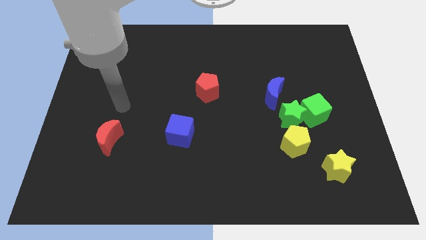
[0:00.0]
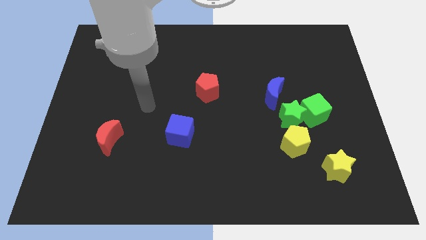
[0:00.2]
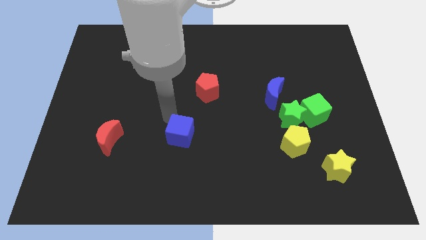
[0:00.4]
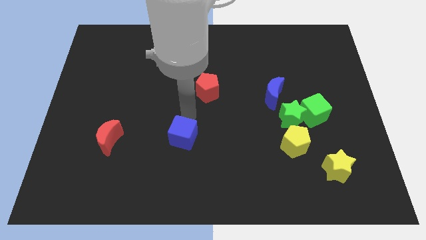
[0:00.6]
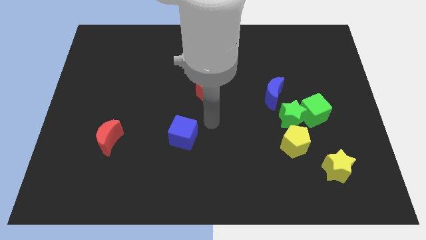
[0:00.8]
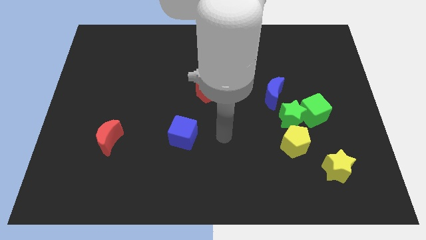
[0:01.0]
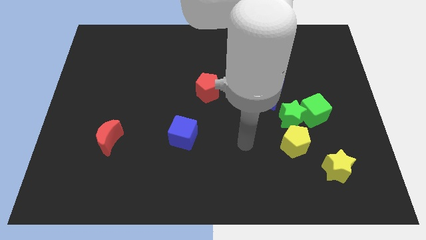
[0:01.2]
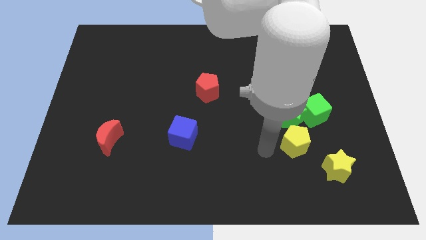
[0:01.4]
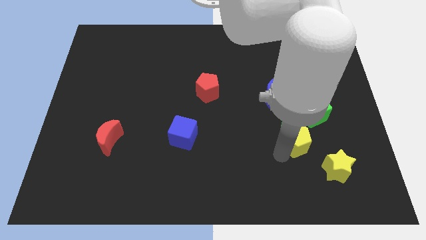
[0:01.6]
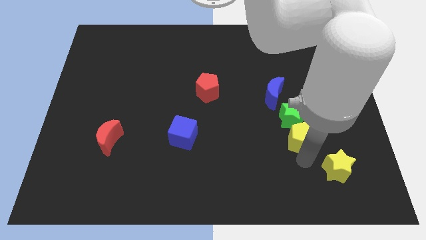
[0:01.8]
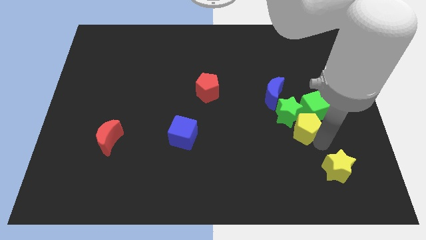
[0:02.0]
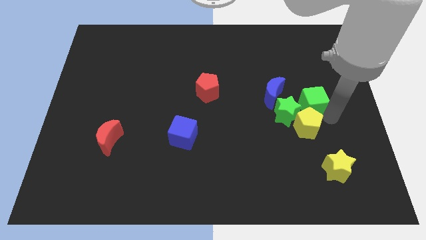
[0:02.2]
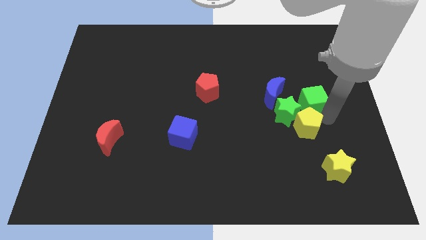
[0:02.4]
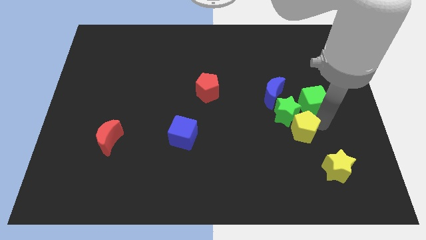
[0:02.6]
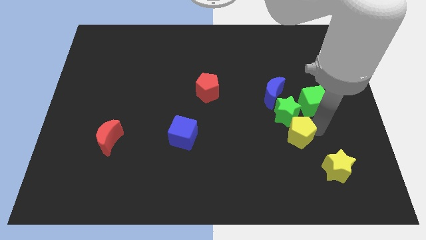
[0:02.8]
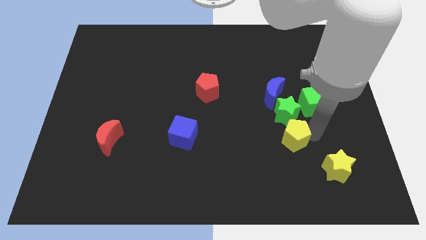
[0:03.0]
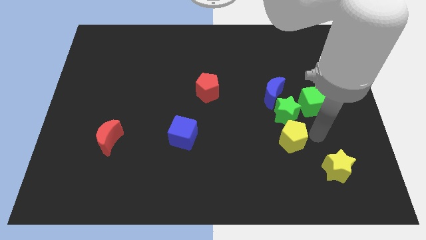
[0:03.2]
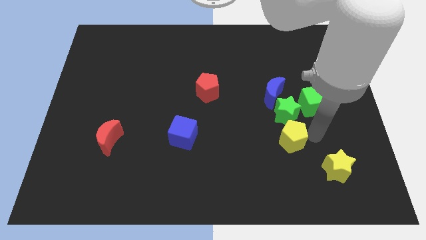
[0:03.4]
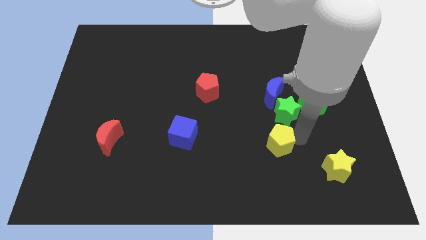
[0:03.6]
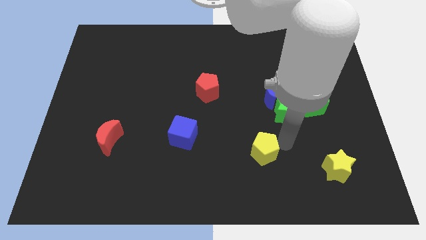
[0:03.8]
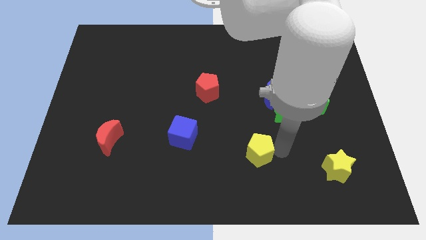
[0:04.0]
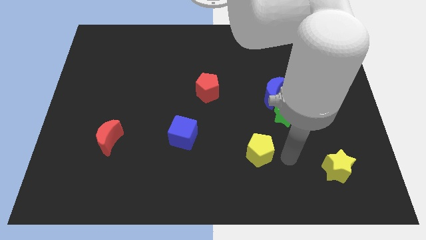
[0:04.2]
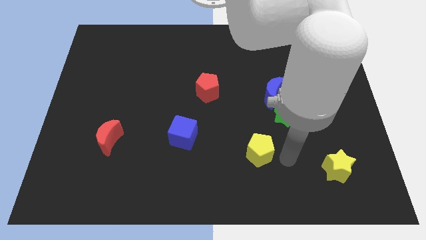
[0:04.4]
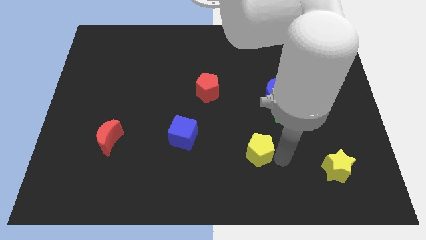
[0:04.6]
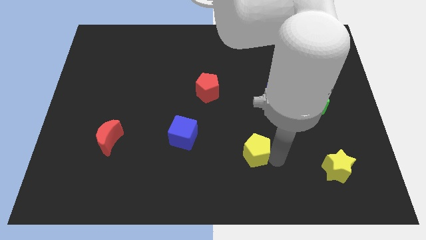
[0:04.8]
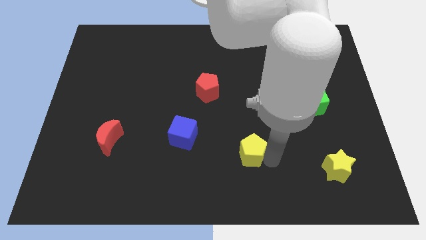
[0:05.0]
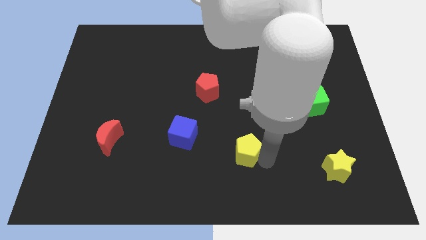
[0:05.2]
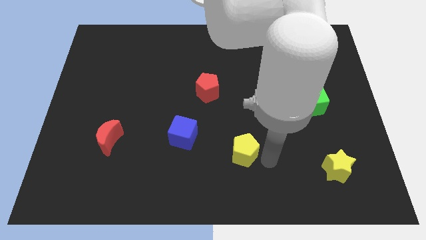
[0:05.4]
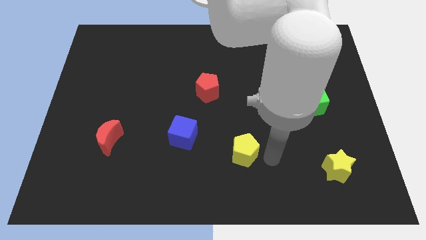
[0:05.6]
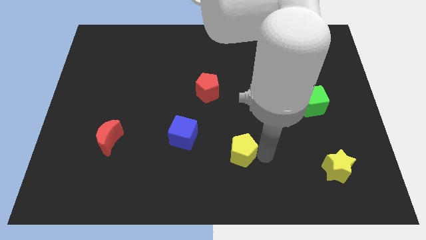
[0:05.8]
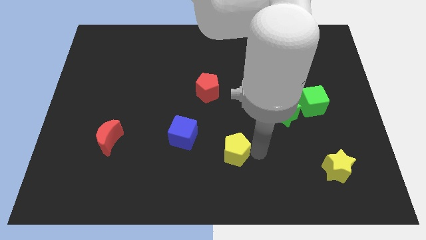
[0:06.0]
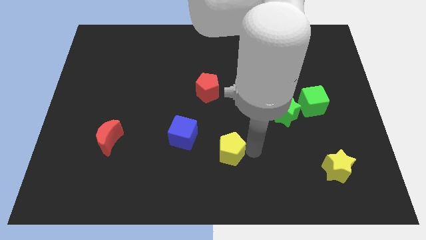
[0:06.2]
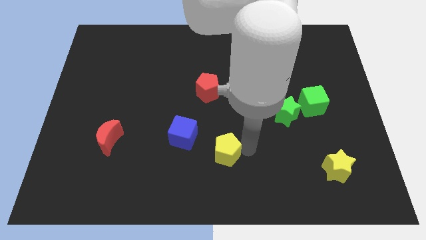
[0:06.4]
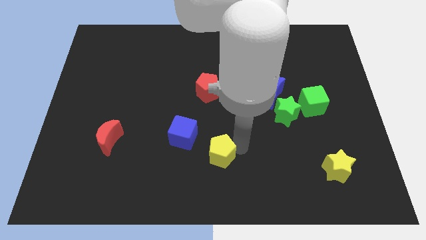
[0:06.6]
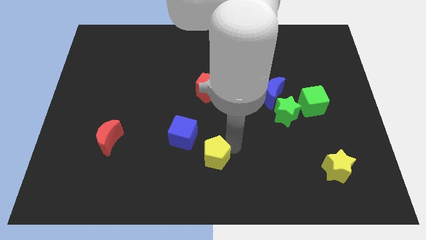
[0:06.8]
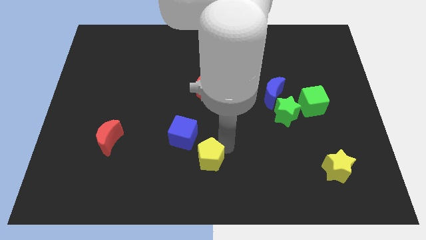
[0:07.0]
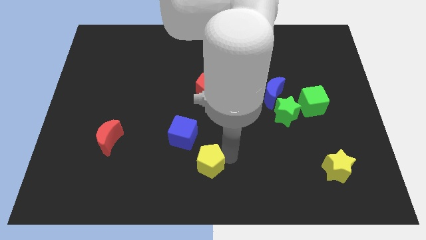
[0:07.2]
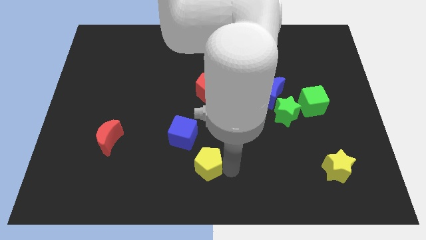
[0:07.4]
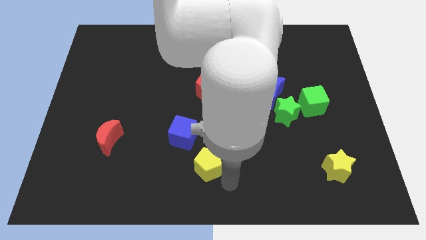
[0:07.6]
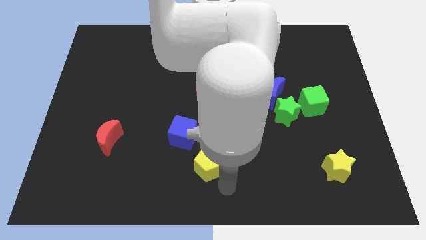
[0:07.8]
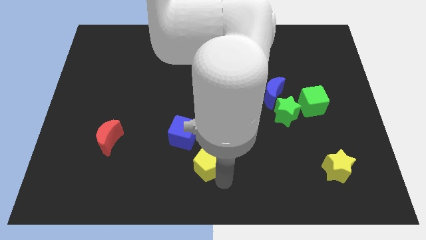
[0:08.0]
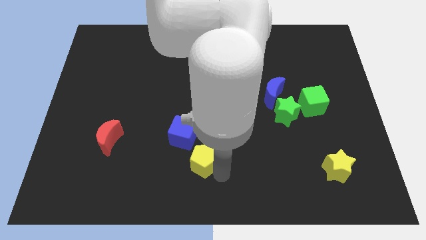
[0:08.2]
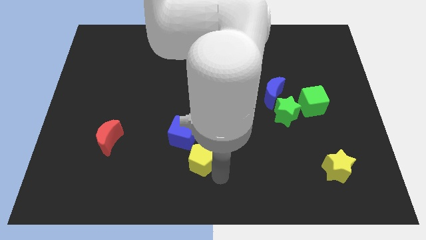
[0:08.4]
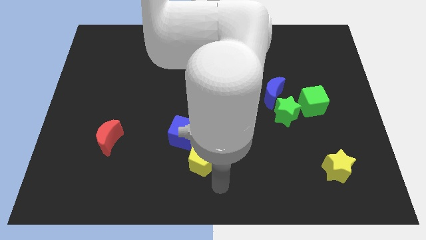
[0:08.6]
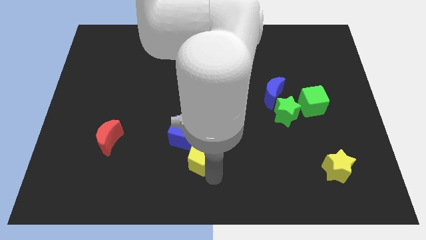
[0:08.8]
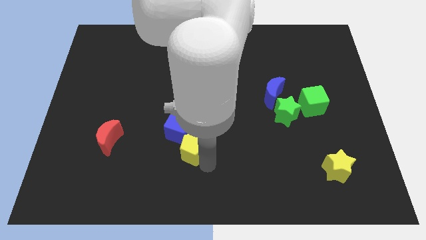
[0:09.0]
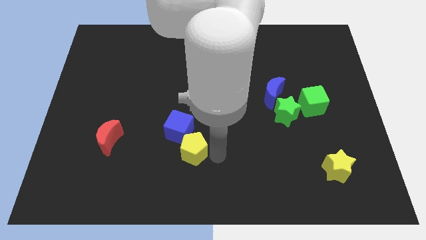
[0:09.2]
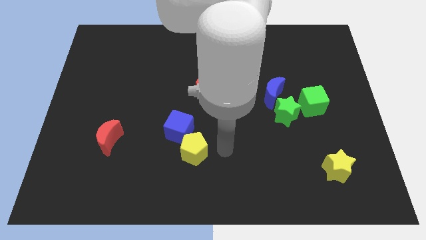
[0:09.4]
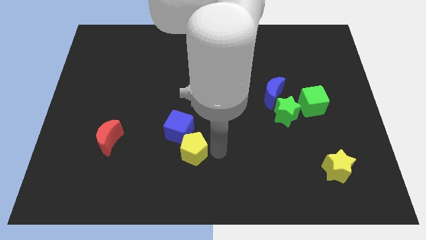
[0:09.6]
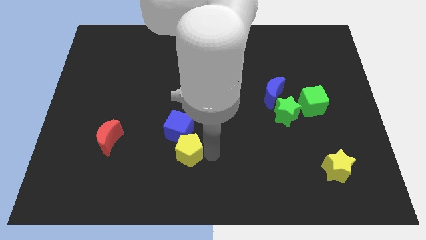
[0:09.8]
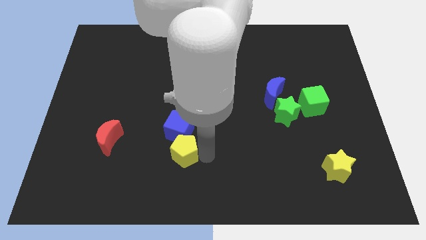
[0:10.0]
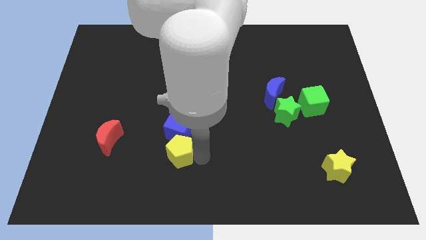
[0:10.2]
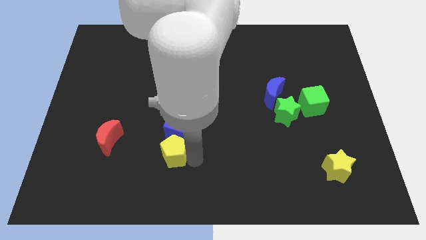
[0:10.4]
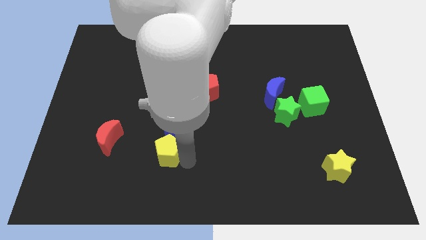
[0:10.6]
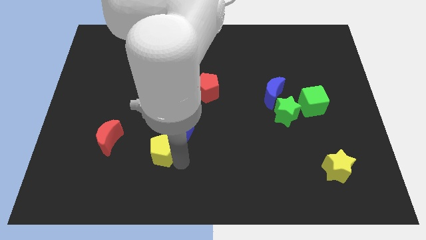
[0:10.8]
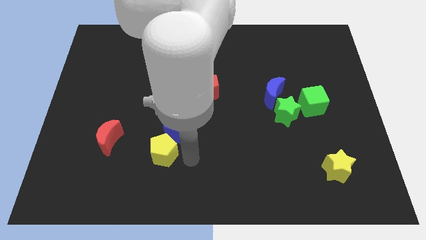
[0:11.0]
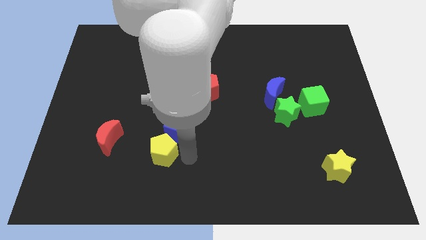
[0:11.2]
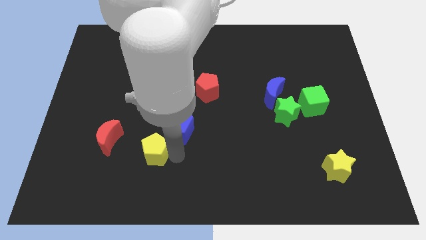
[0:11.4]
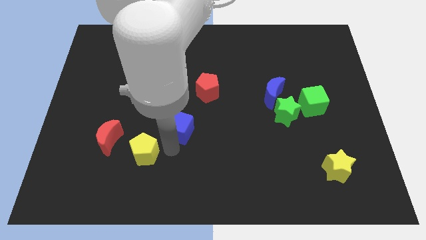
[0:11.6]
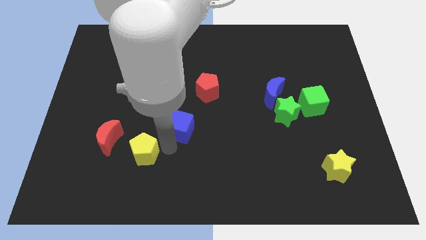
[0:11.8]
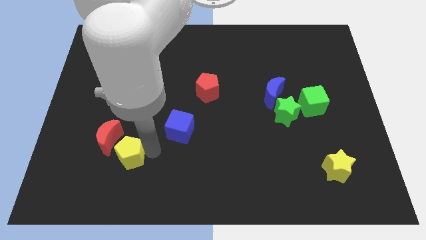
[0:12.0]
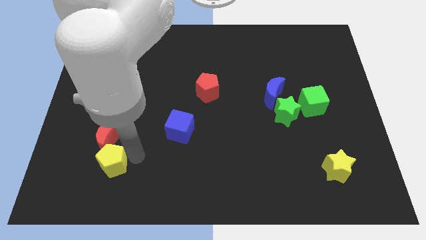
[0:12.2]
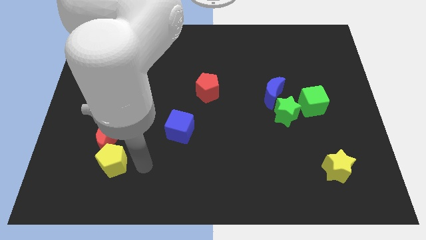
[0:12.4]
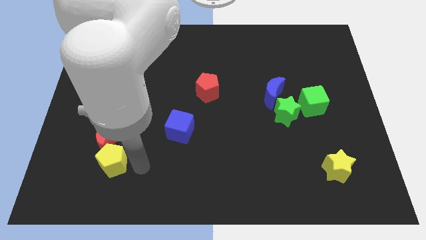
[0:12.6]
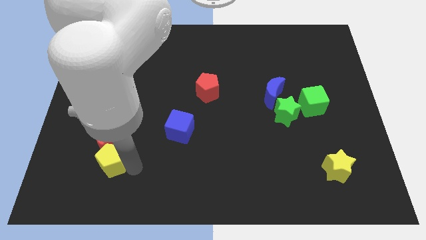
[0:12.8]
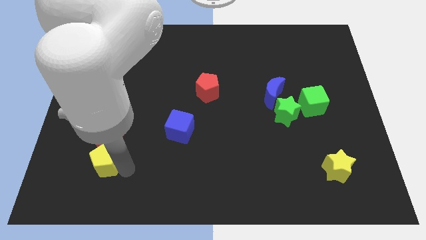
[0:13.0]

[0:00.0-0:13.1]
move the yellow pentagon diagonally down and to the left of the red moon
